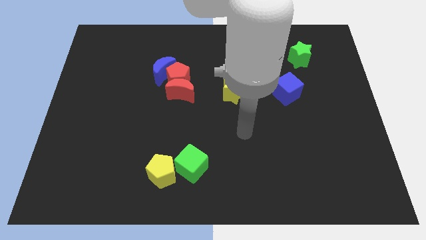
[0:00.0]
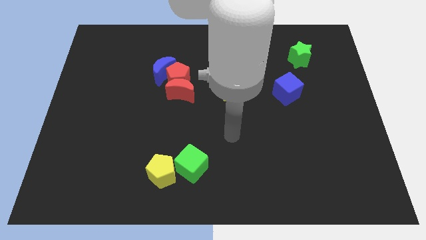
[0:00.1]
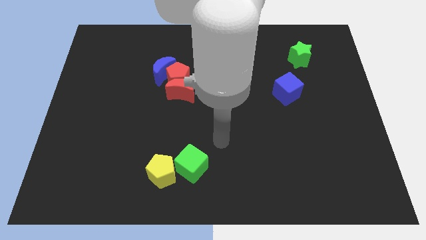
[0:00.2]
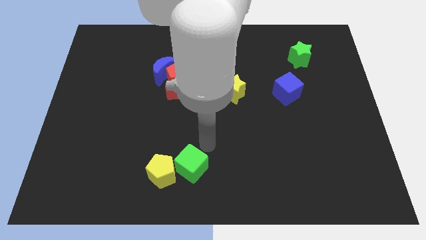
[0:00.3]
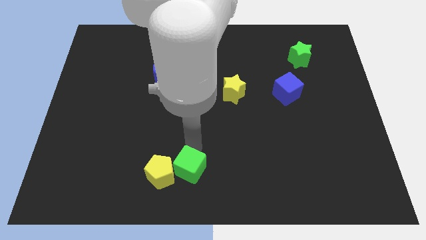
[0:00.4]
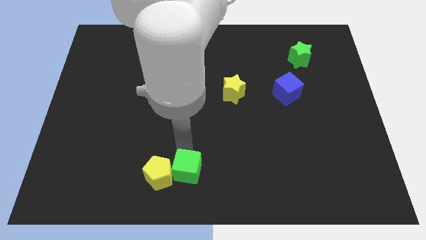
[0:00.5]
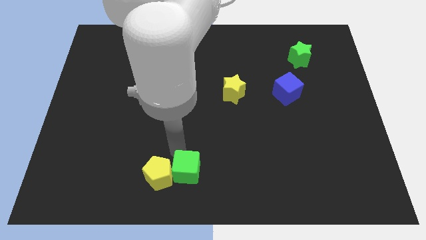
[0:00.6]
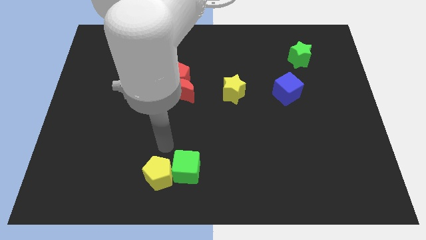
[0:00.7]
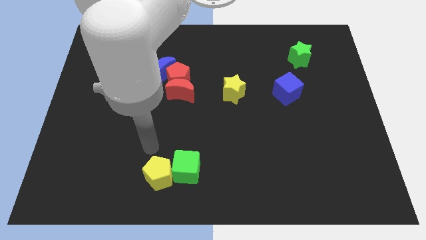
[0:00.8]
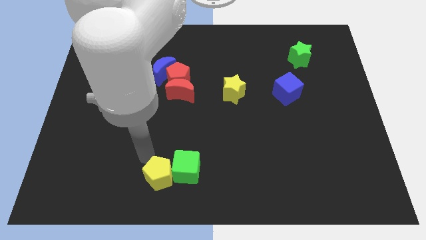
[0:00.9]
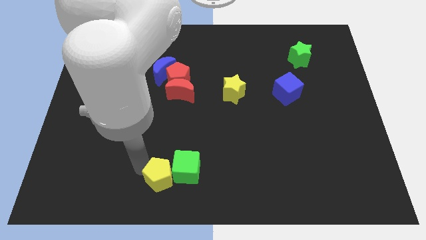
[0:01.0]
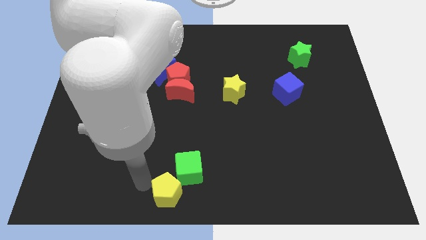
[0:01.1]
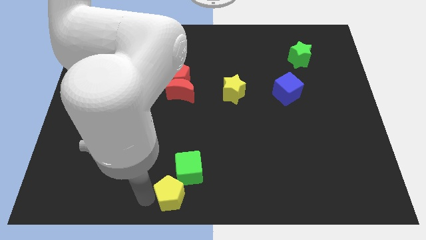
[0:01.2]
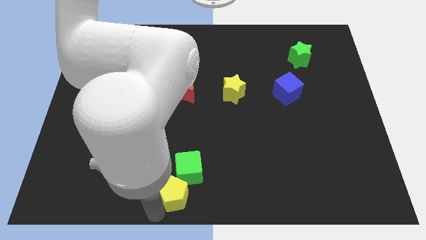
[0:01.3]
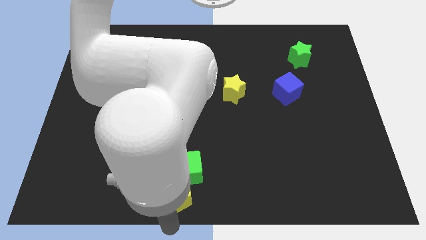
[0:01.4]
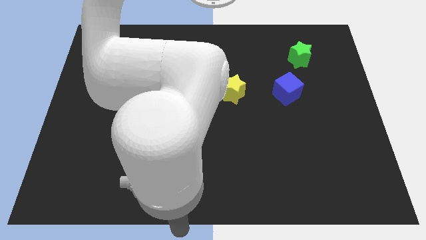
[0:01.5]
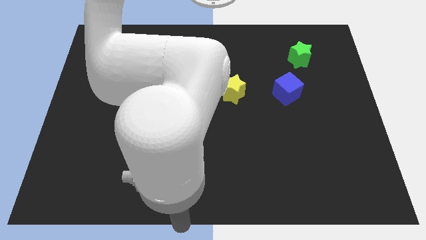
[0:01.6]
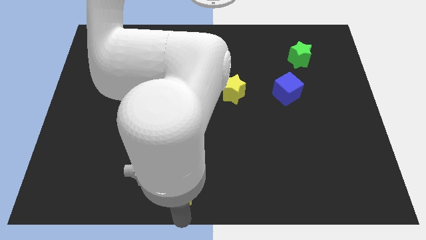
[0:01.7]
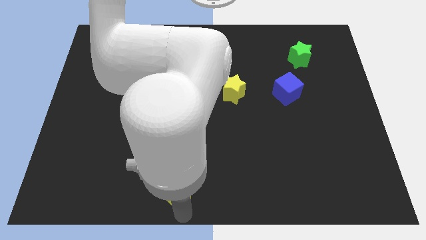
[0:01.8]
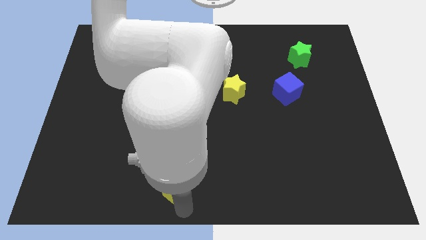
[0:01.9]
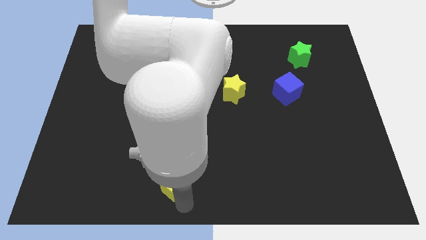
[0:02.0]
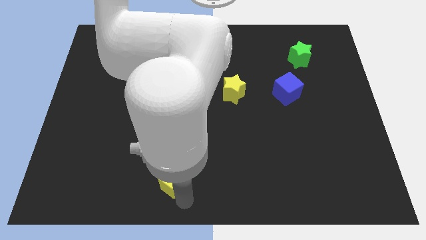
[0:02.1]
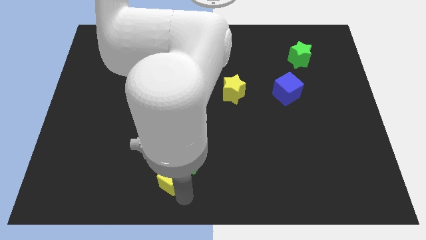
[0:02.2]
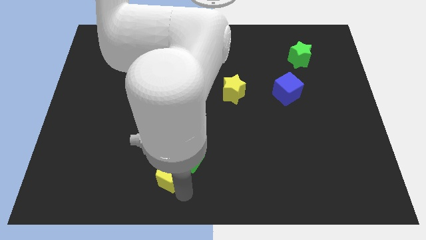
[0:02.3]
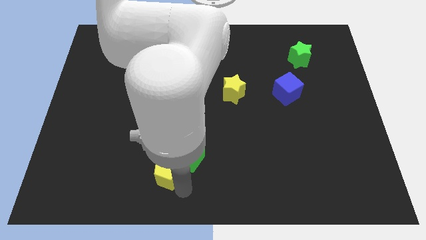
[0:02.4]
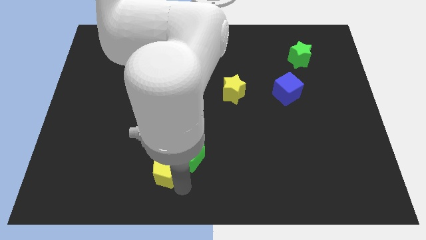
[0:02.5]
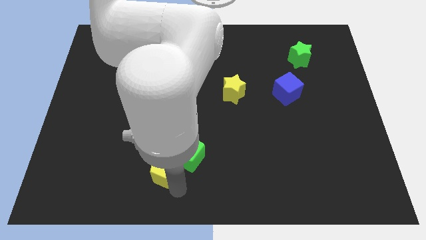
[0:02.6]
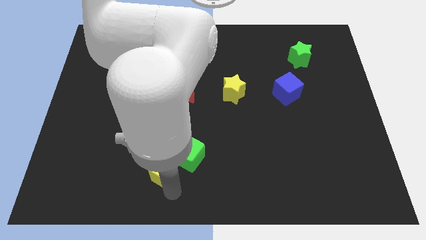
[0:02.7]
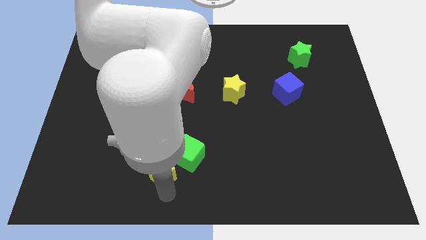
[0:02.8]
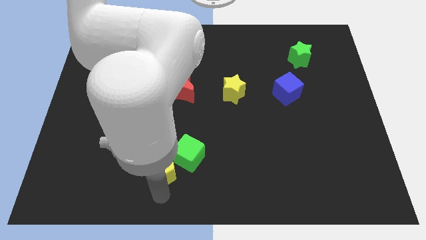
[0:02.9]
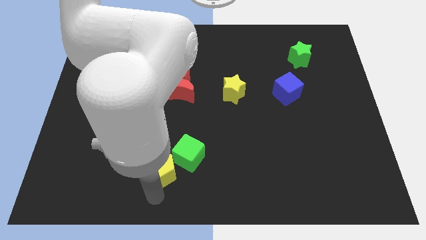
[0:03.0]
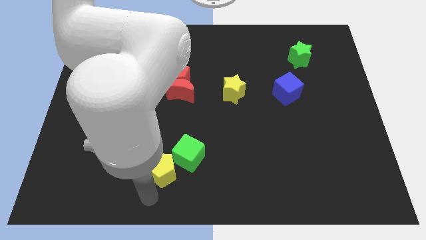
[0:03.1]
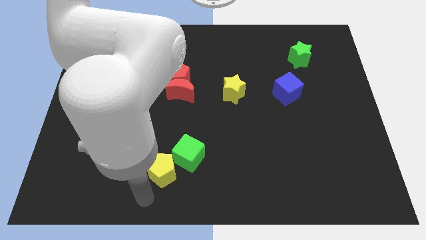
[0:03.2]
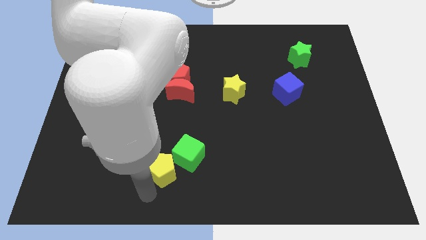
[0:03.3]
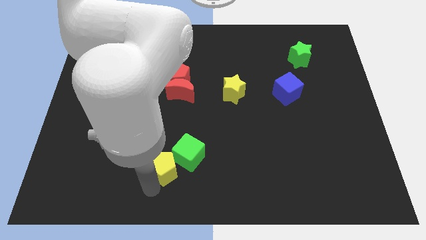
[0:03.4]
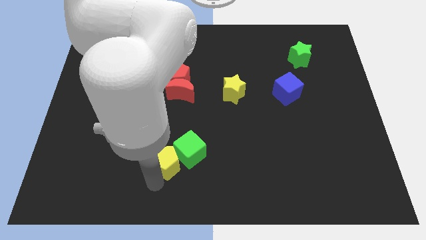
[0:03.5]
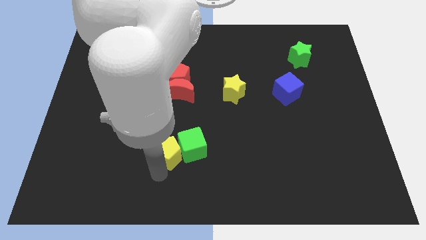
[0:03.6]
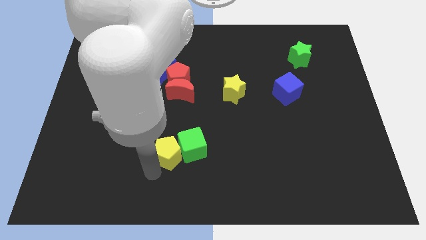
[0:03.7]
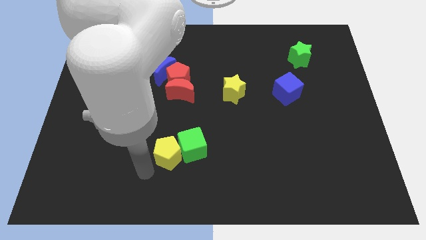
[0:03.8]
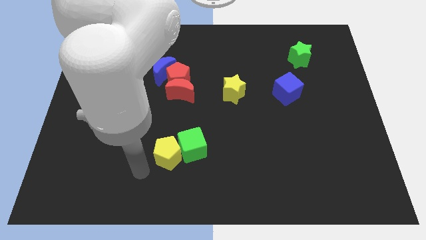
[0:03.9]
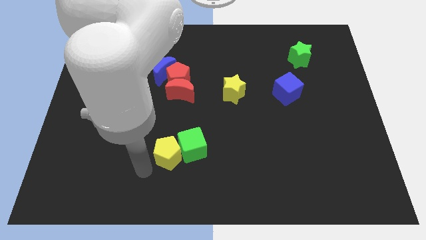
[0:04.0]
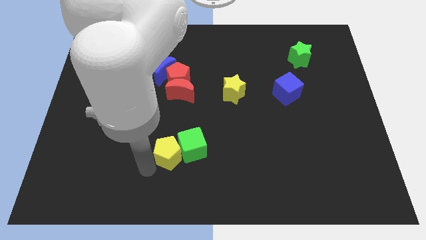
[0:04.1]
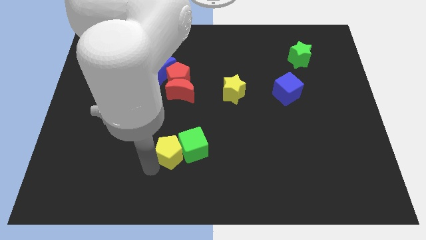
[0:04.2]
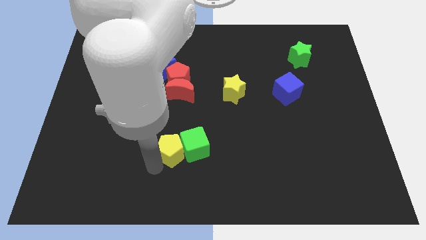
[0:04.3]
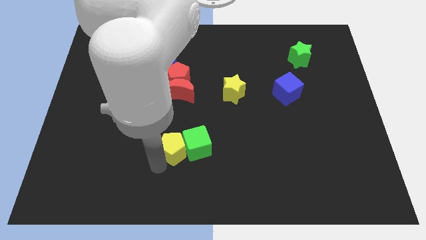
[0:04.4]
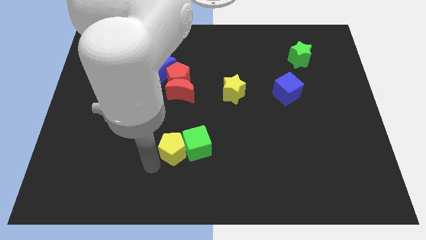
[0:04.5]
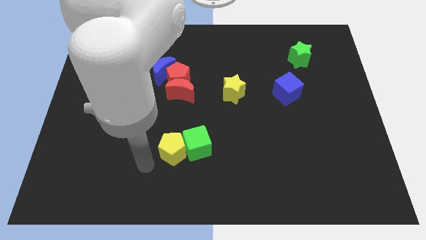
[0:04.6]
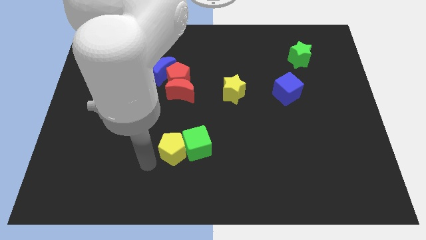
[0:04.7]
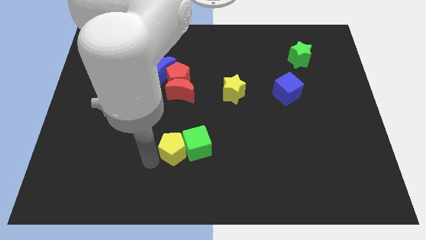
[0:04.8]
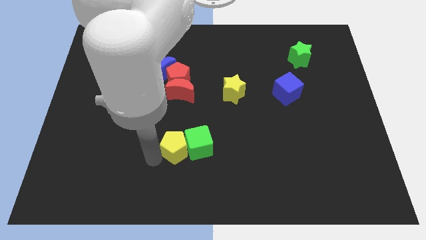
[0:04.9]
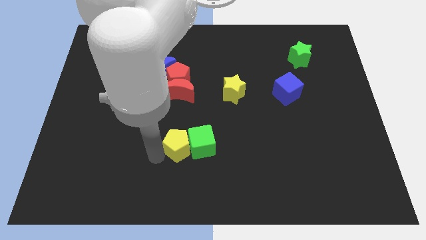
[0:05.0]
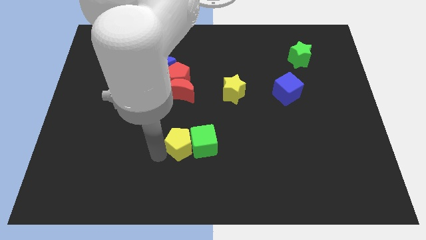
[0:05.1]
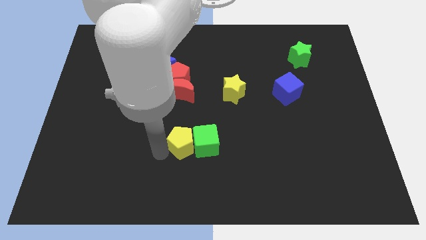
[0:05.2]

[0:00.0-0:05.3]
slightly slide the yellow pentagon upwards and then right

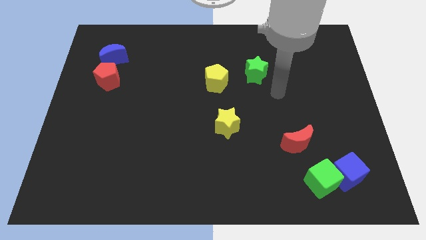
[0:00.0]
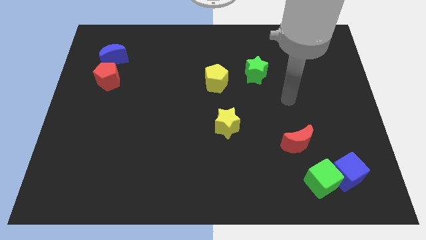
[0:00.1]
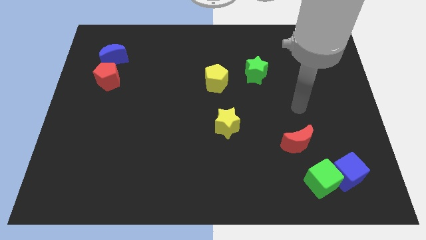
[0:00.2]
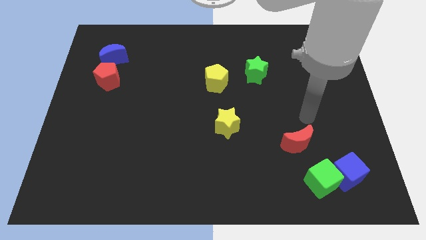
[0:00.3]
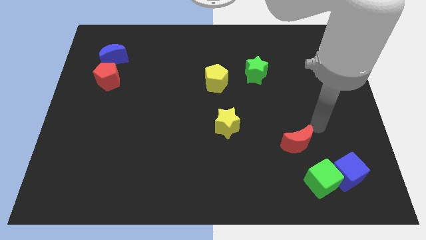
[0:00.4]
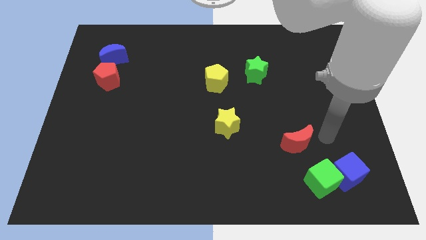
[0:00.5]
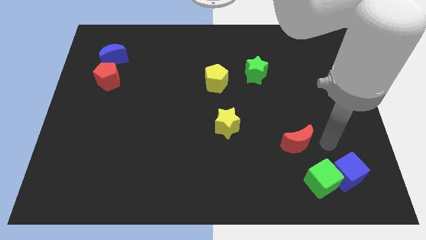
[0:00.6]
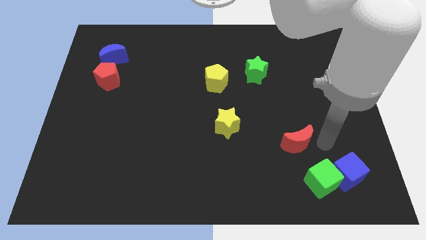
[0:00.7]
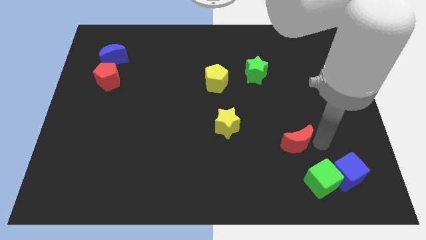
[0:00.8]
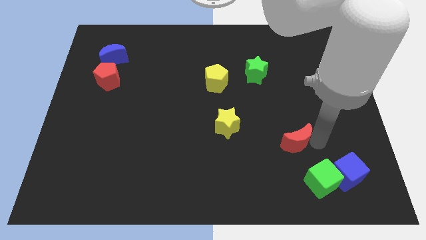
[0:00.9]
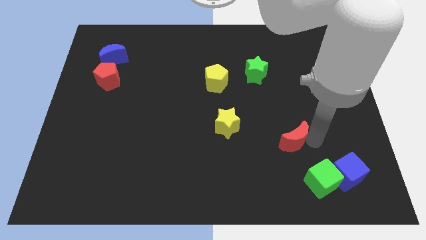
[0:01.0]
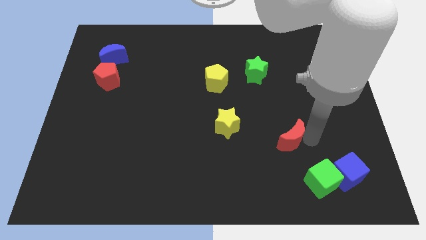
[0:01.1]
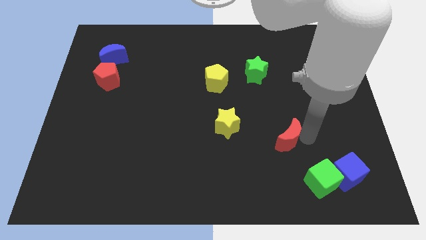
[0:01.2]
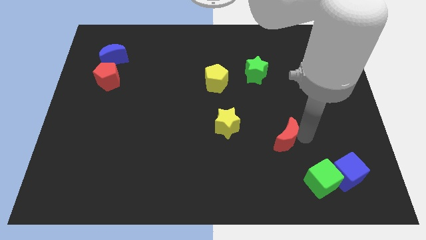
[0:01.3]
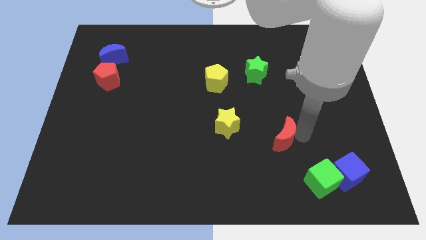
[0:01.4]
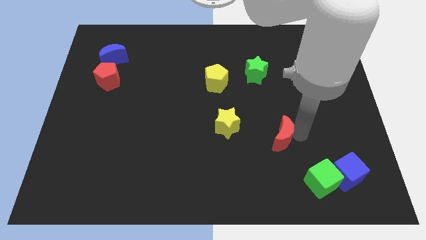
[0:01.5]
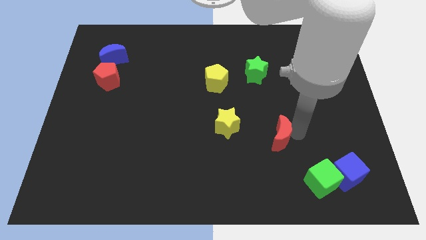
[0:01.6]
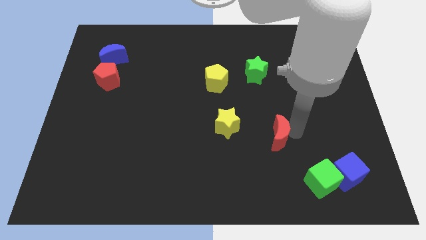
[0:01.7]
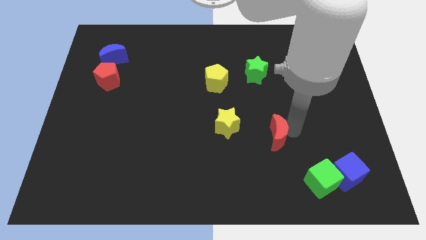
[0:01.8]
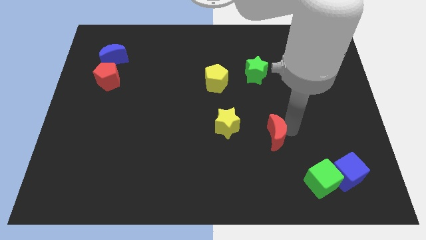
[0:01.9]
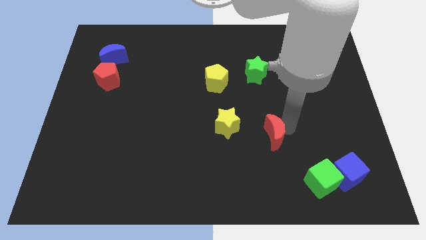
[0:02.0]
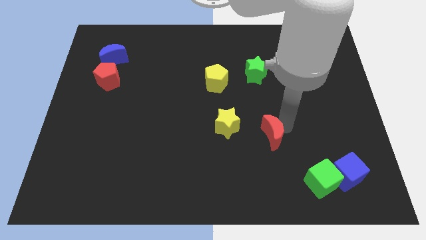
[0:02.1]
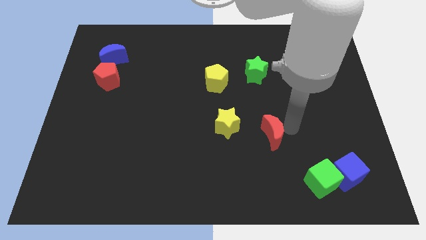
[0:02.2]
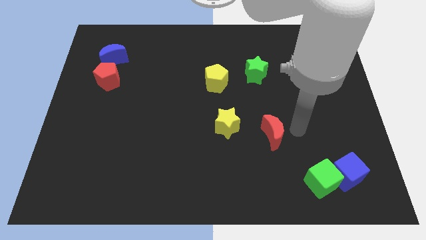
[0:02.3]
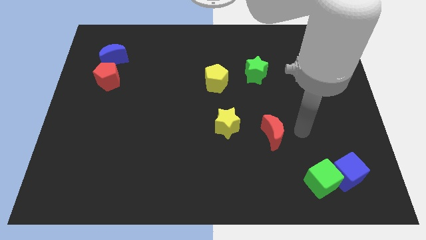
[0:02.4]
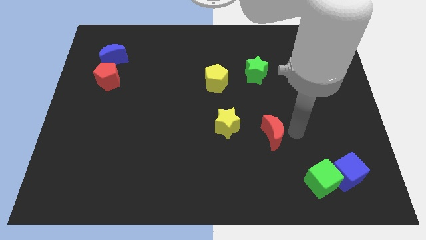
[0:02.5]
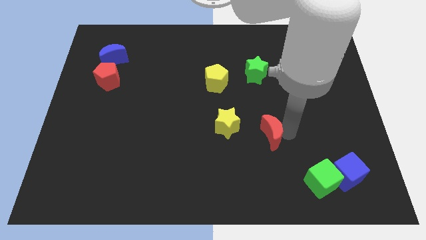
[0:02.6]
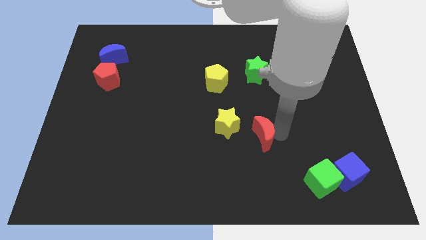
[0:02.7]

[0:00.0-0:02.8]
move the red moon a little bit to the left

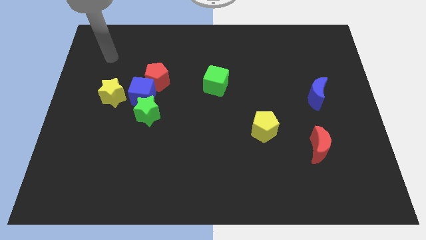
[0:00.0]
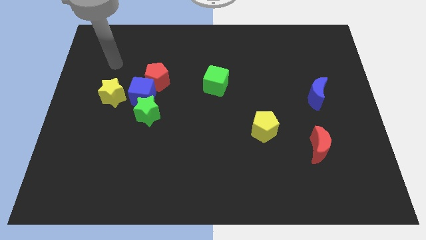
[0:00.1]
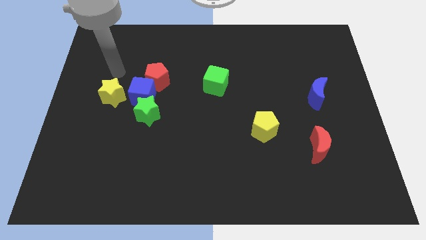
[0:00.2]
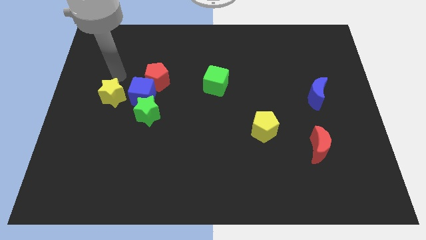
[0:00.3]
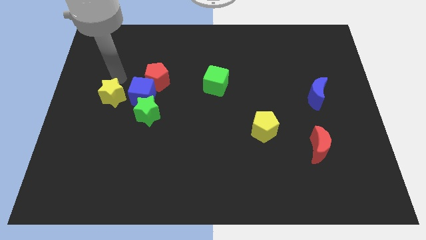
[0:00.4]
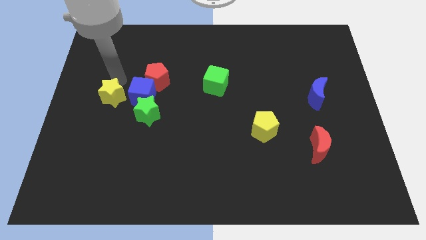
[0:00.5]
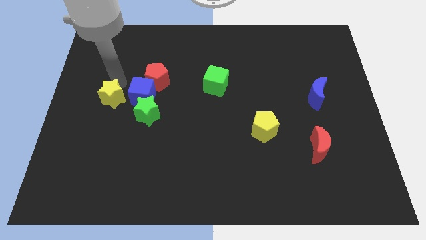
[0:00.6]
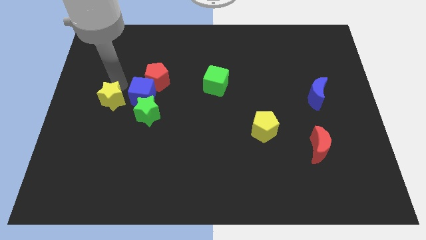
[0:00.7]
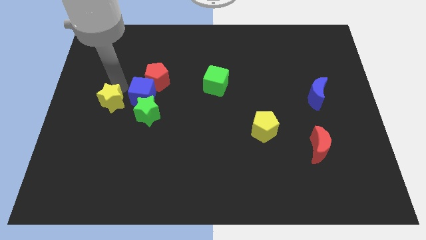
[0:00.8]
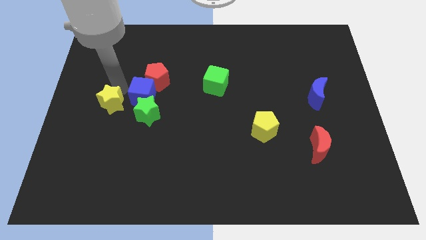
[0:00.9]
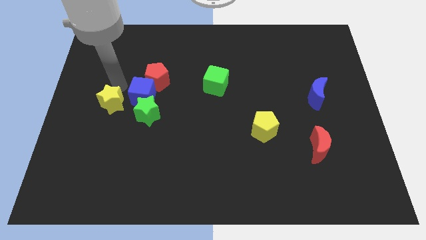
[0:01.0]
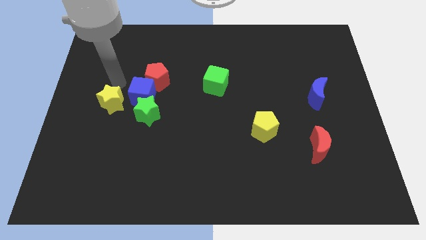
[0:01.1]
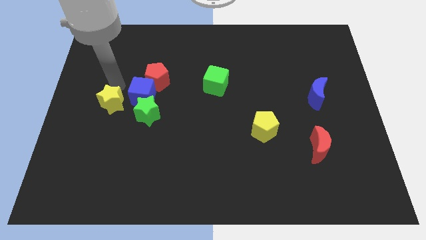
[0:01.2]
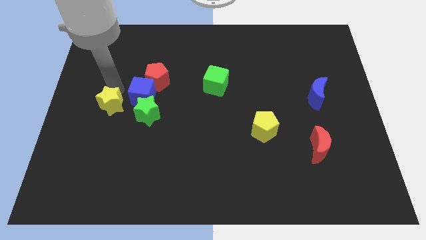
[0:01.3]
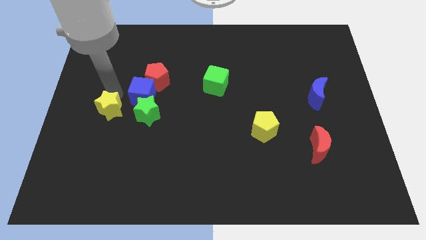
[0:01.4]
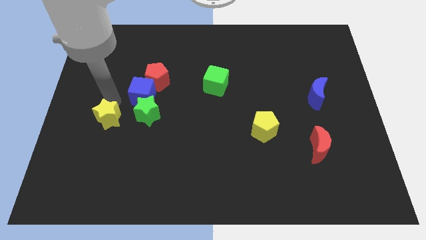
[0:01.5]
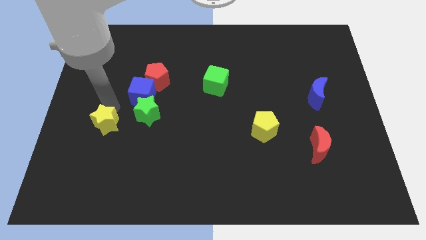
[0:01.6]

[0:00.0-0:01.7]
move the yellow star a little down
